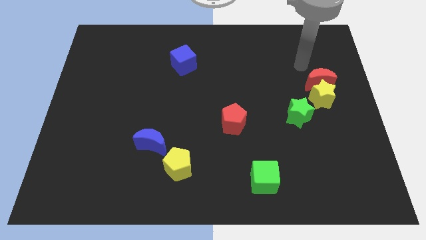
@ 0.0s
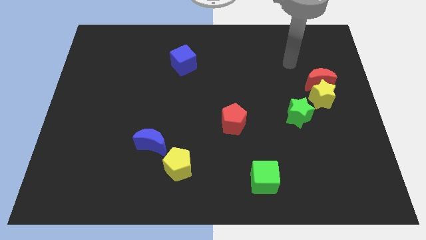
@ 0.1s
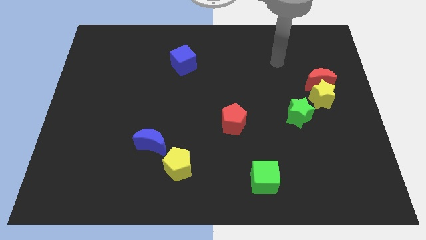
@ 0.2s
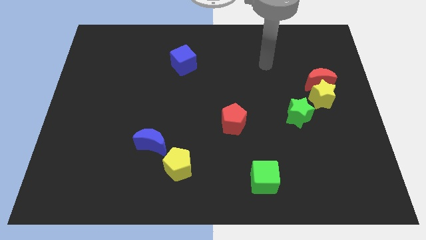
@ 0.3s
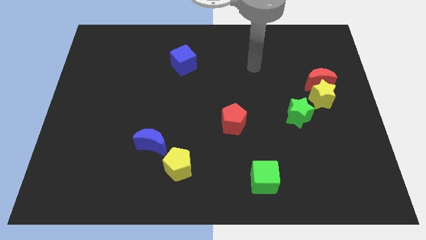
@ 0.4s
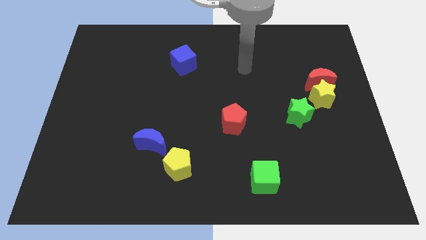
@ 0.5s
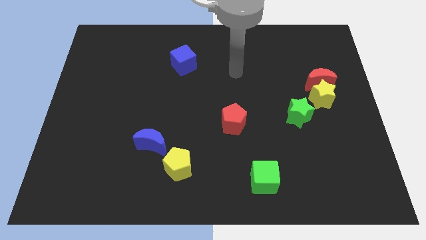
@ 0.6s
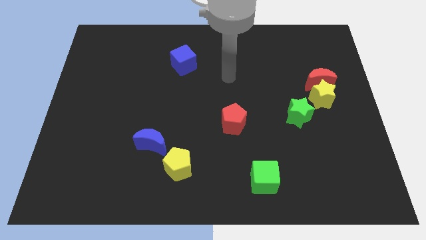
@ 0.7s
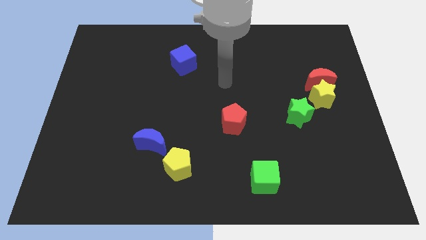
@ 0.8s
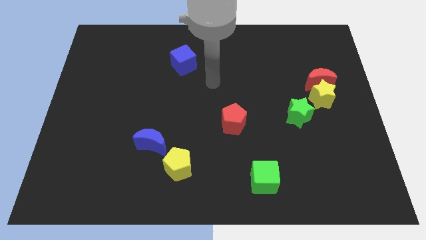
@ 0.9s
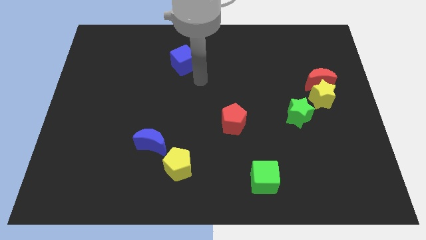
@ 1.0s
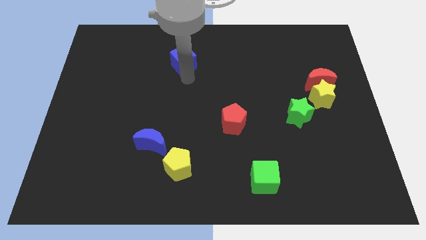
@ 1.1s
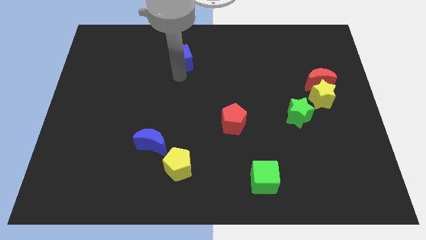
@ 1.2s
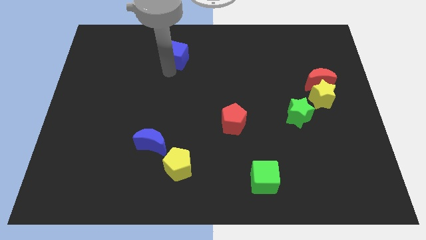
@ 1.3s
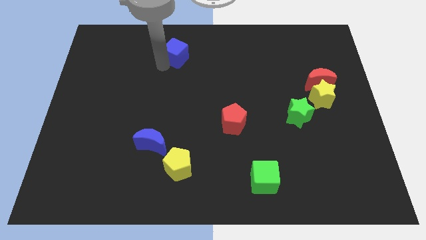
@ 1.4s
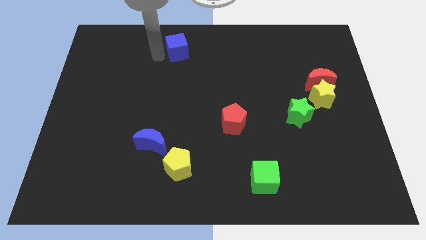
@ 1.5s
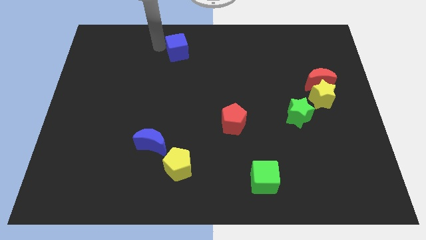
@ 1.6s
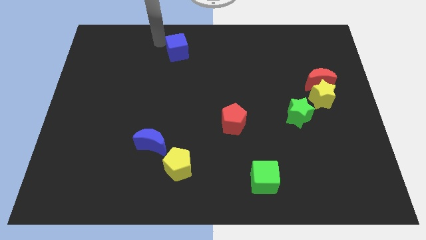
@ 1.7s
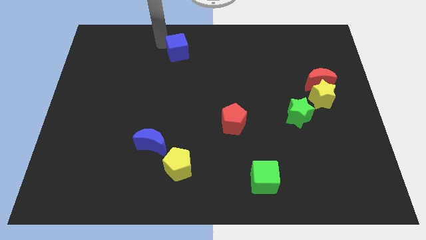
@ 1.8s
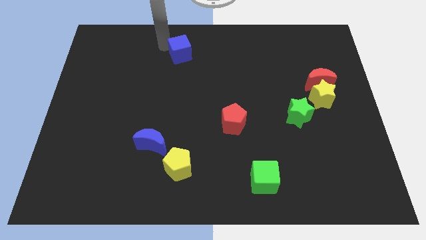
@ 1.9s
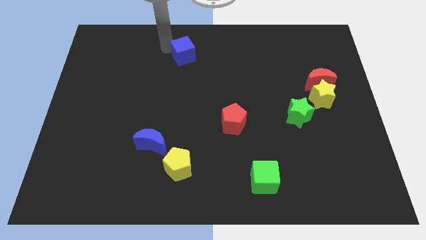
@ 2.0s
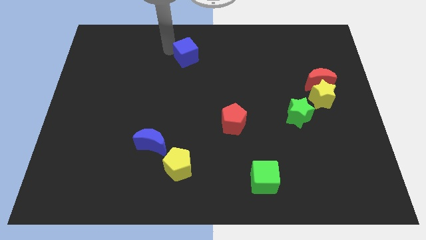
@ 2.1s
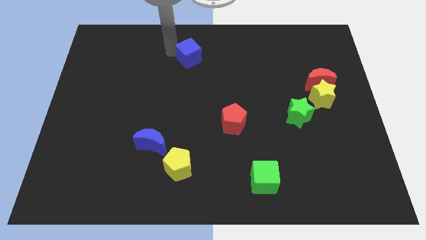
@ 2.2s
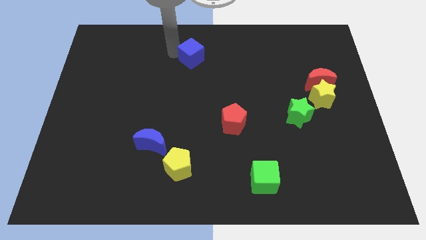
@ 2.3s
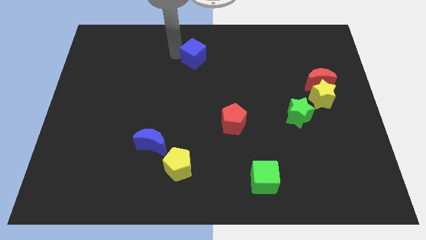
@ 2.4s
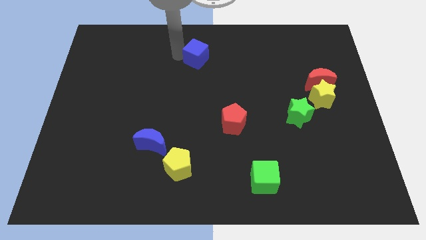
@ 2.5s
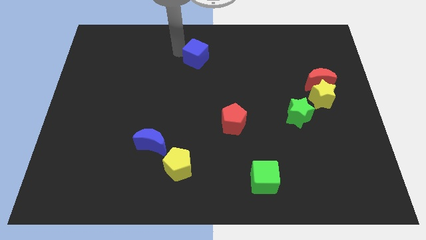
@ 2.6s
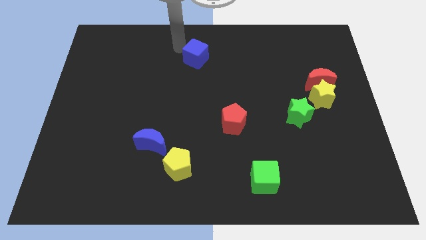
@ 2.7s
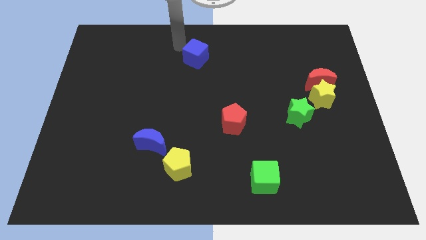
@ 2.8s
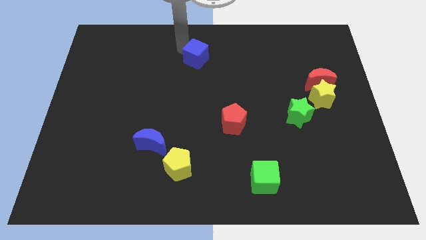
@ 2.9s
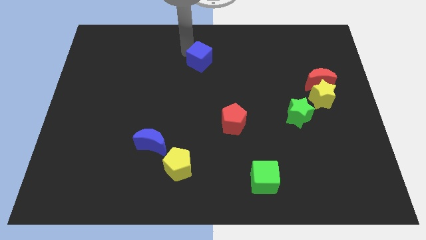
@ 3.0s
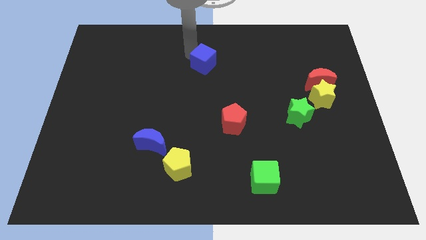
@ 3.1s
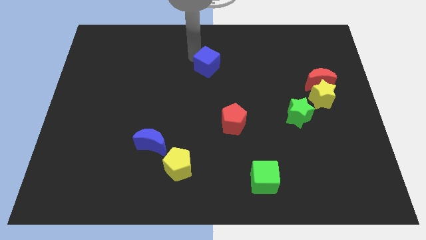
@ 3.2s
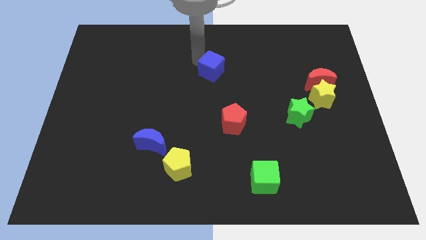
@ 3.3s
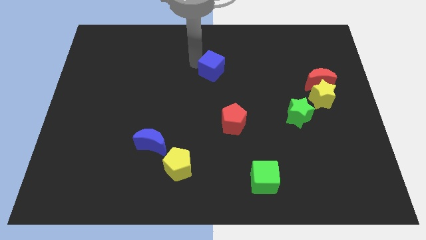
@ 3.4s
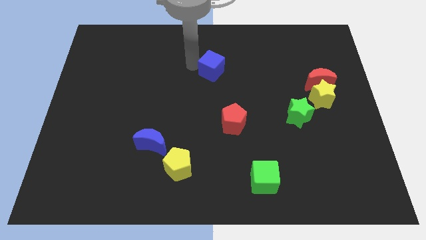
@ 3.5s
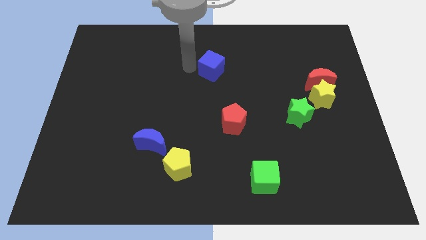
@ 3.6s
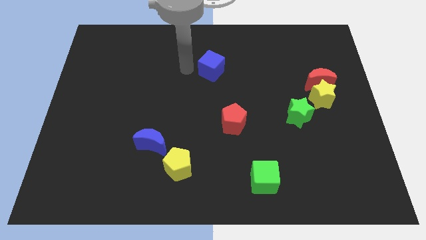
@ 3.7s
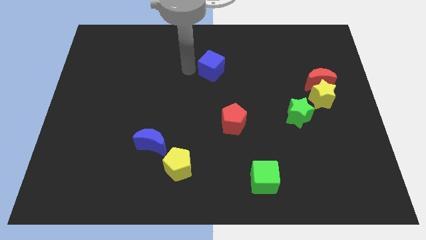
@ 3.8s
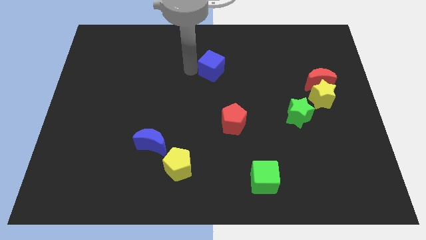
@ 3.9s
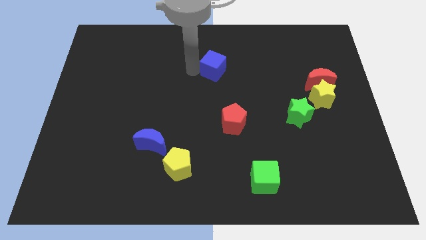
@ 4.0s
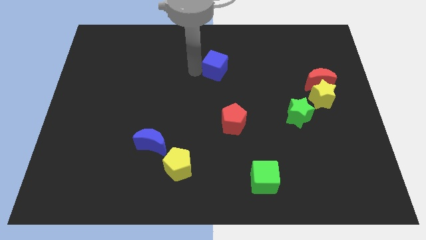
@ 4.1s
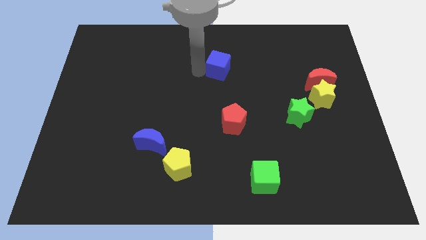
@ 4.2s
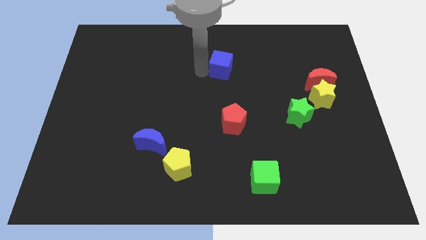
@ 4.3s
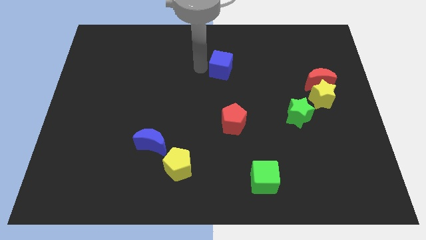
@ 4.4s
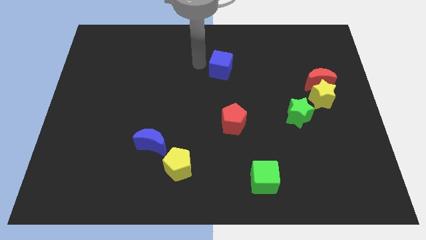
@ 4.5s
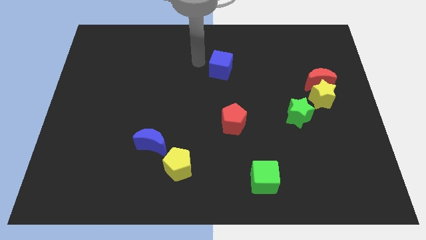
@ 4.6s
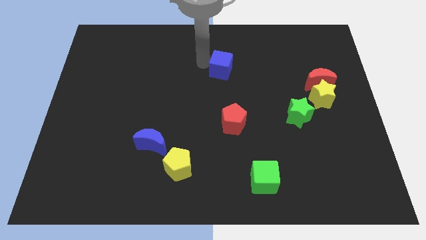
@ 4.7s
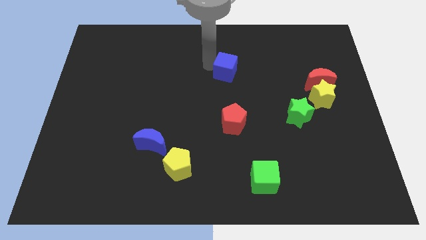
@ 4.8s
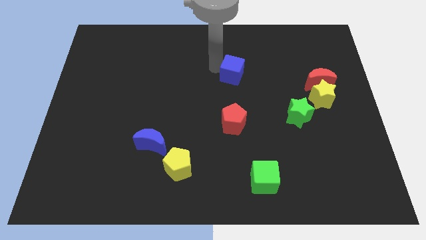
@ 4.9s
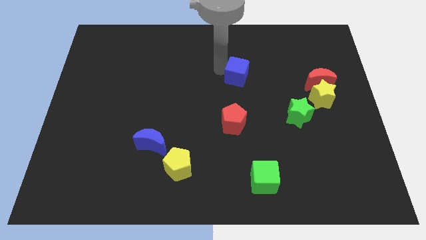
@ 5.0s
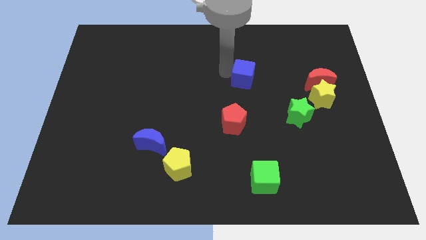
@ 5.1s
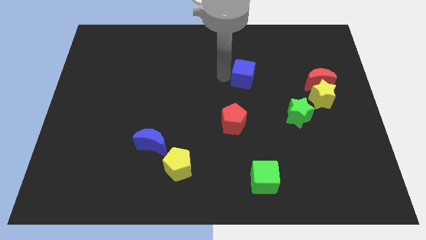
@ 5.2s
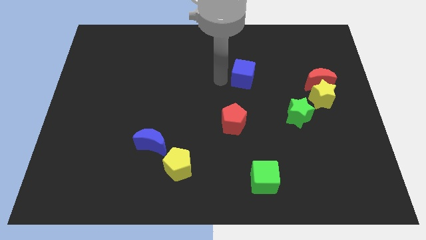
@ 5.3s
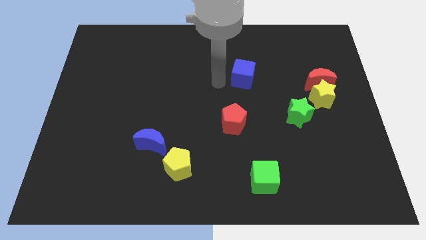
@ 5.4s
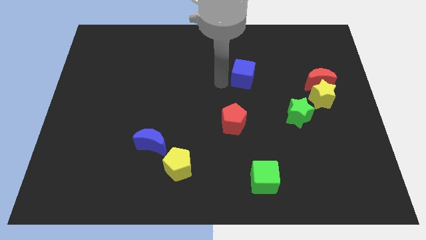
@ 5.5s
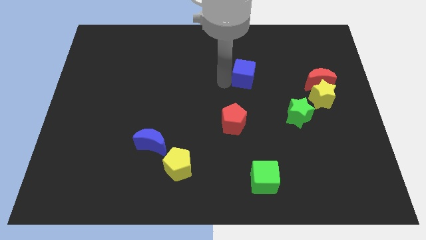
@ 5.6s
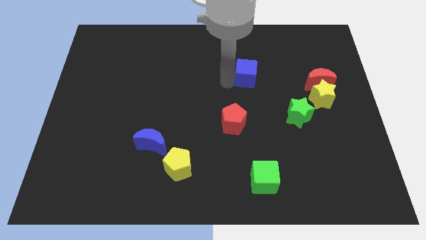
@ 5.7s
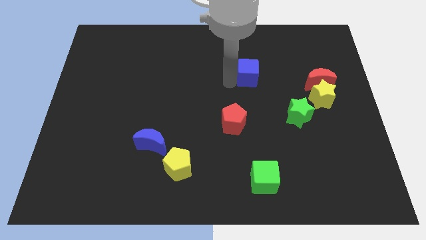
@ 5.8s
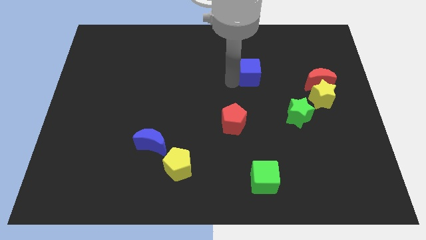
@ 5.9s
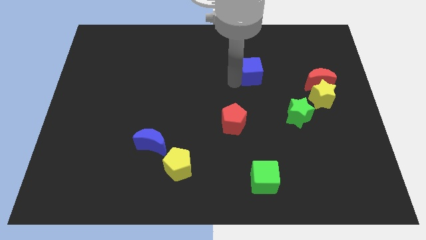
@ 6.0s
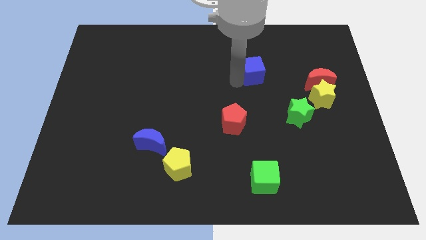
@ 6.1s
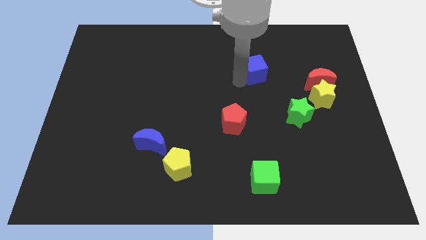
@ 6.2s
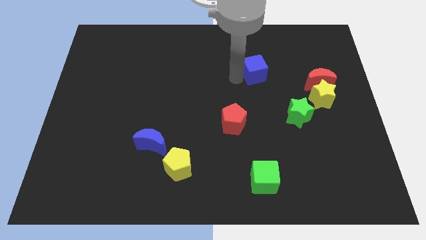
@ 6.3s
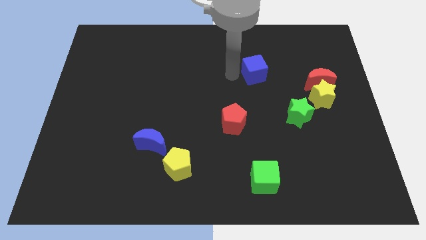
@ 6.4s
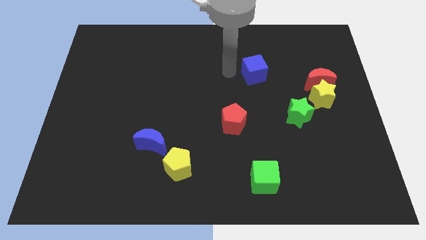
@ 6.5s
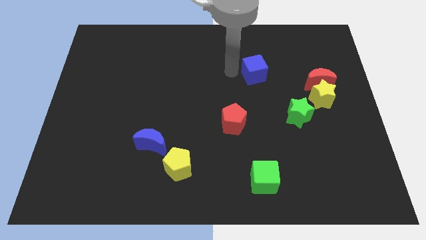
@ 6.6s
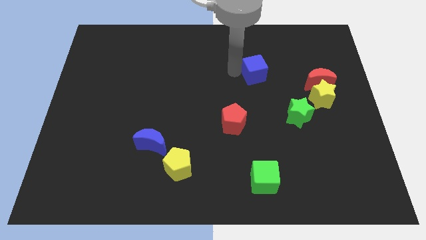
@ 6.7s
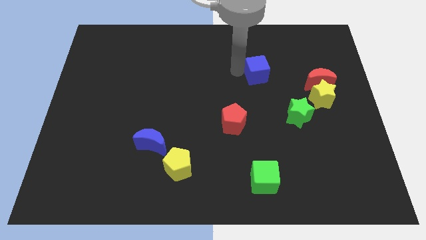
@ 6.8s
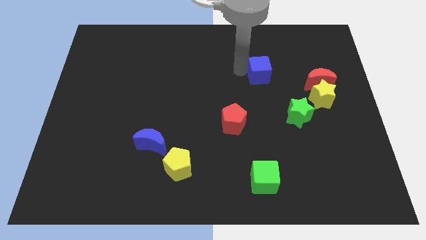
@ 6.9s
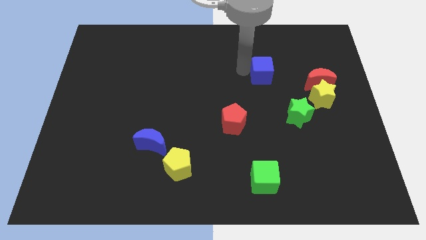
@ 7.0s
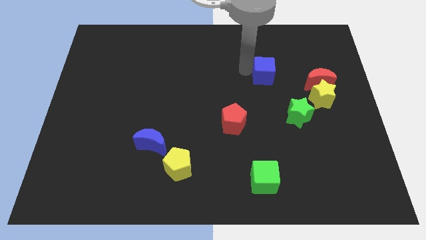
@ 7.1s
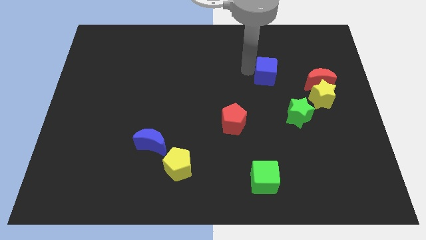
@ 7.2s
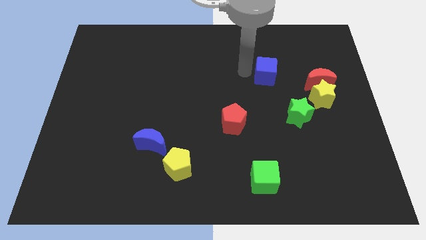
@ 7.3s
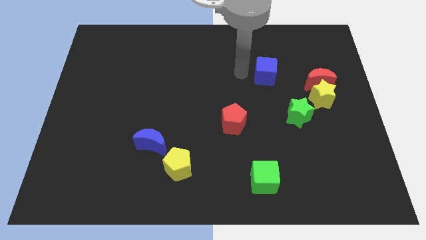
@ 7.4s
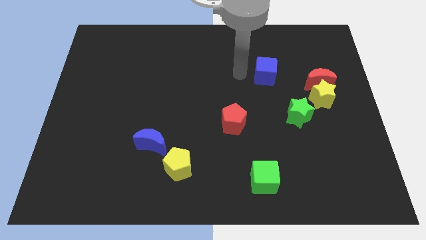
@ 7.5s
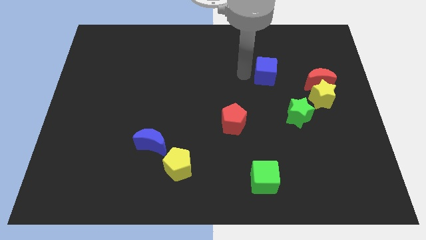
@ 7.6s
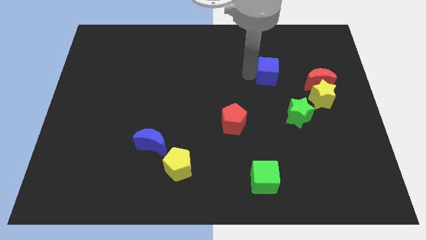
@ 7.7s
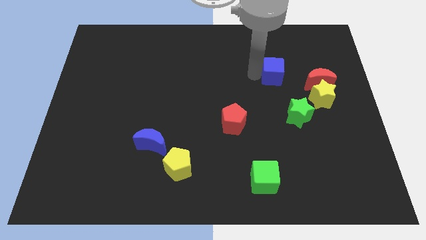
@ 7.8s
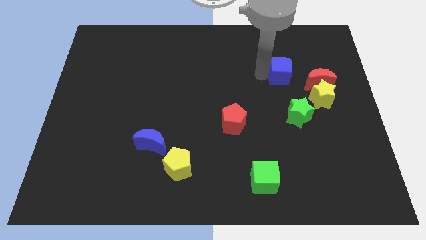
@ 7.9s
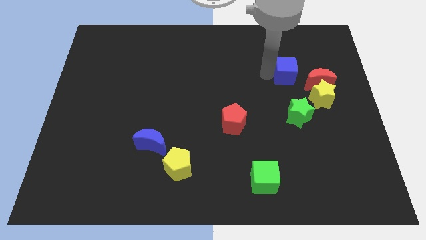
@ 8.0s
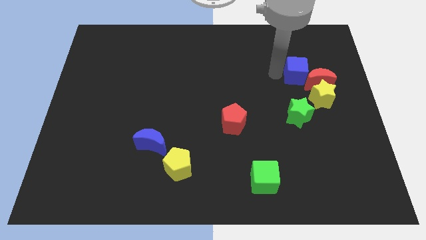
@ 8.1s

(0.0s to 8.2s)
push the blue cube towards the red moon
